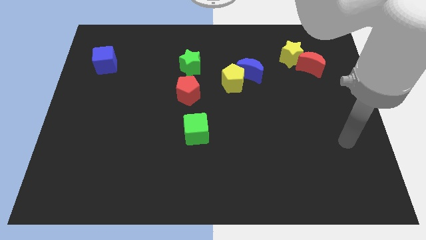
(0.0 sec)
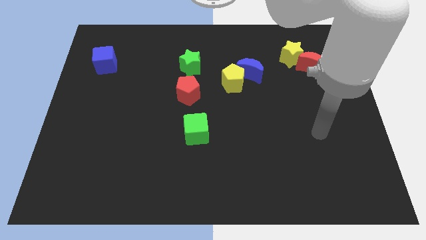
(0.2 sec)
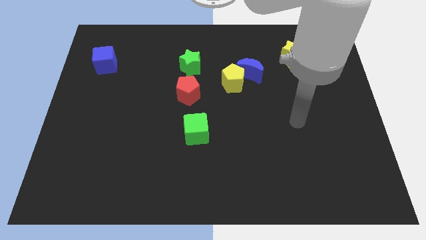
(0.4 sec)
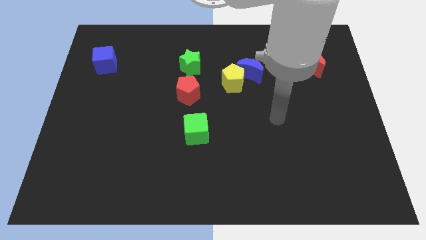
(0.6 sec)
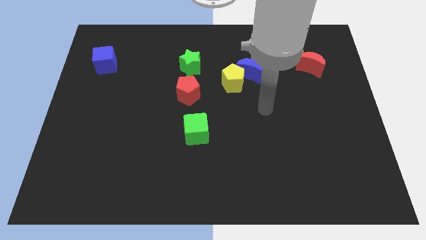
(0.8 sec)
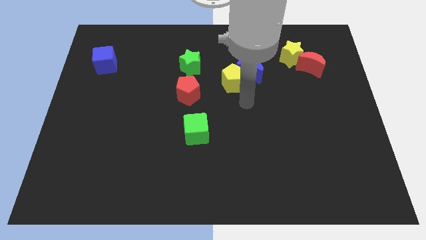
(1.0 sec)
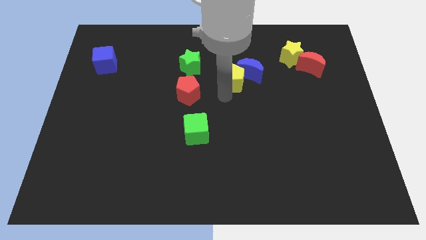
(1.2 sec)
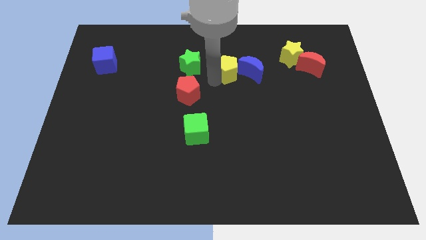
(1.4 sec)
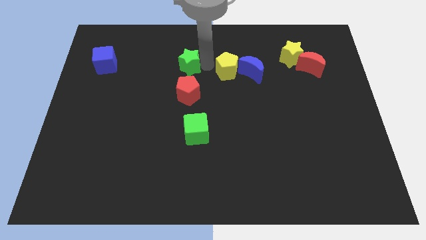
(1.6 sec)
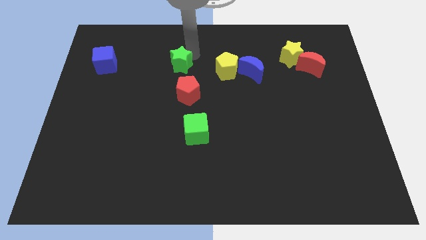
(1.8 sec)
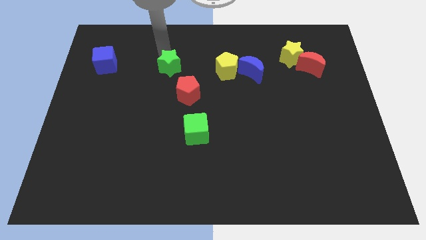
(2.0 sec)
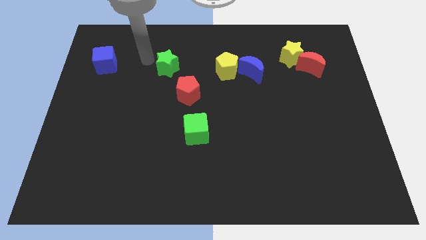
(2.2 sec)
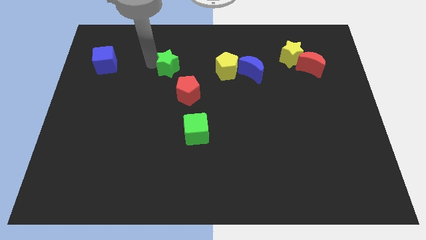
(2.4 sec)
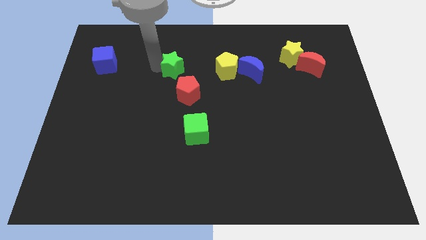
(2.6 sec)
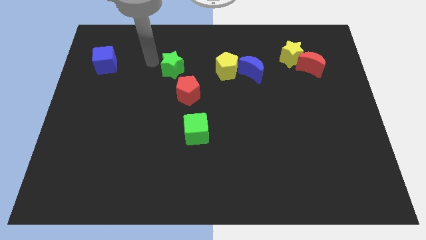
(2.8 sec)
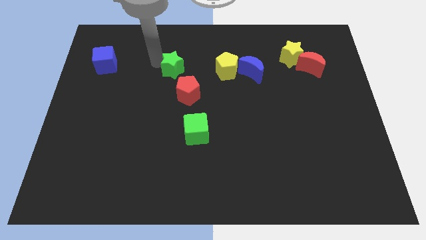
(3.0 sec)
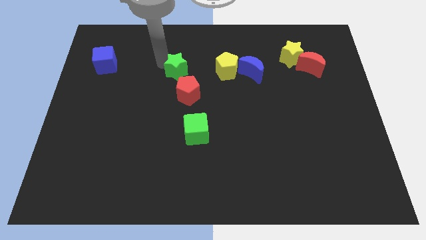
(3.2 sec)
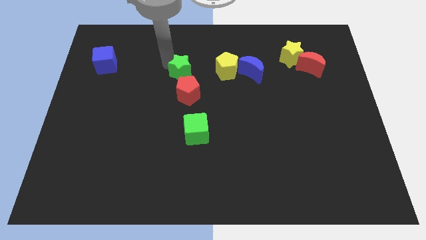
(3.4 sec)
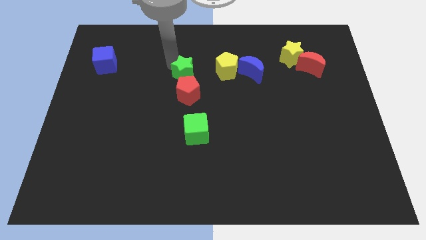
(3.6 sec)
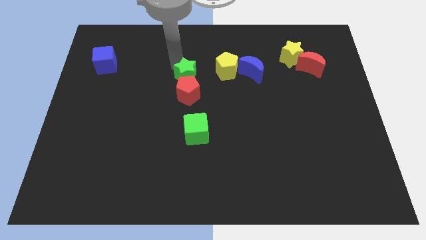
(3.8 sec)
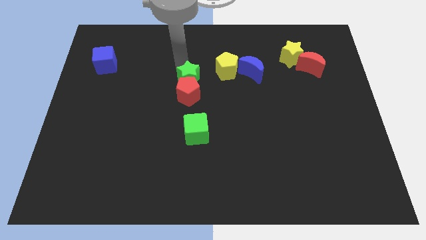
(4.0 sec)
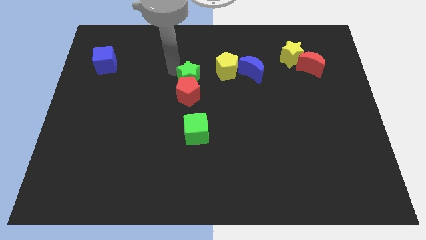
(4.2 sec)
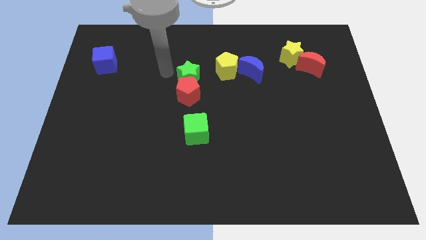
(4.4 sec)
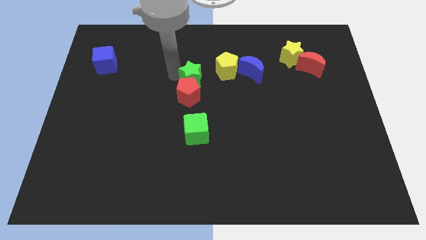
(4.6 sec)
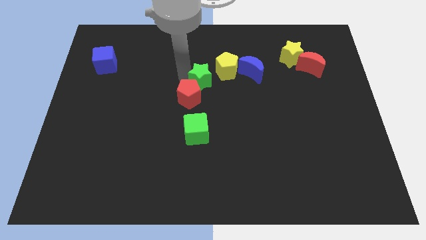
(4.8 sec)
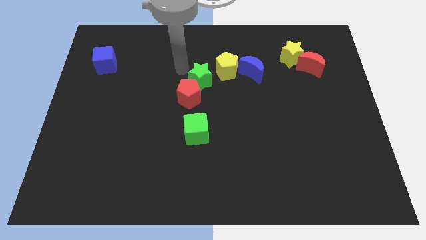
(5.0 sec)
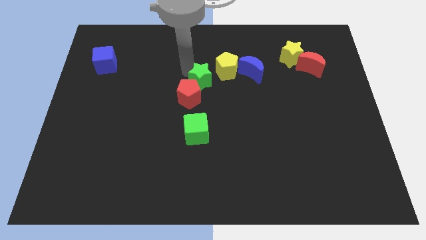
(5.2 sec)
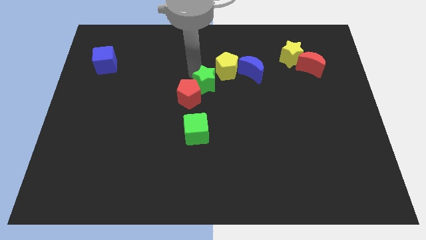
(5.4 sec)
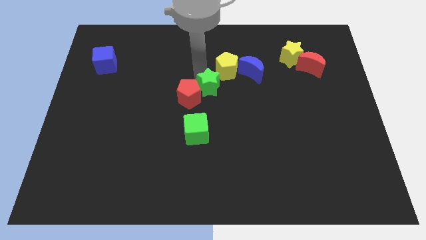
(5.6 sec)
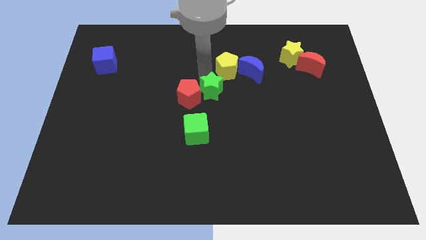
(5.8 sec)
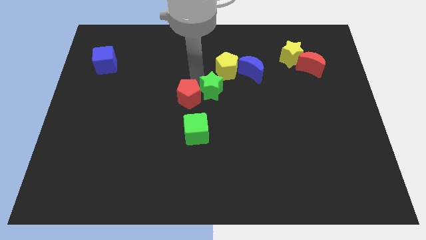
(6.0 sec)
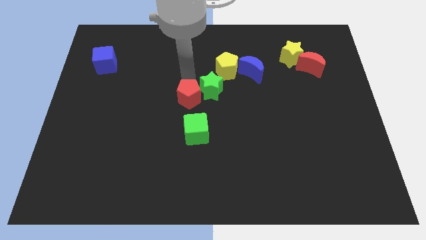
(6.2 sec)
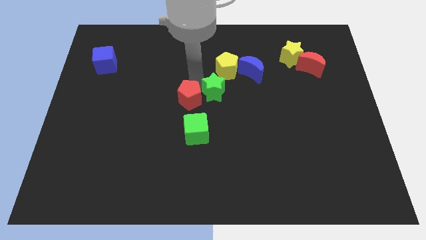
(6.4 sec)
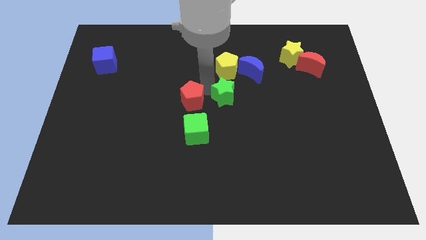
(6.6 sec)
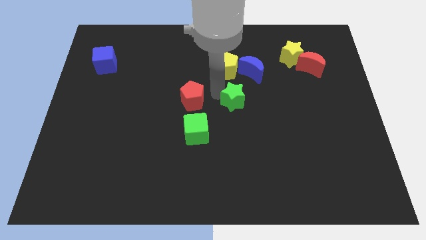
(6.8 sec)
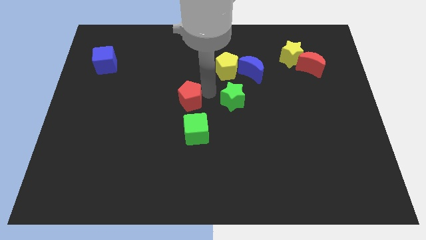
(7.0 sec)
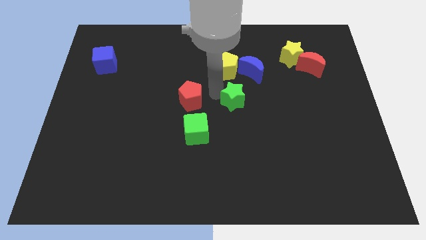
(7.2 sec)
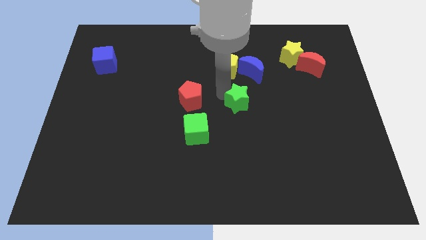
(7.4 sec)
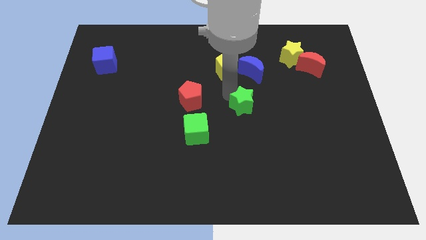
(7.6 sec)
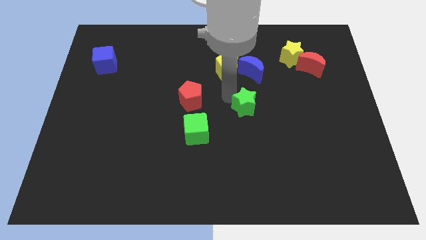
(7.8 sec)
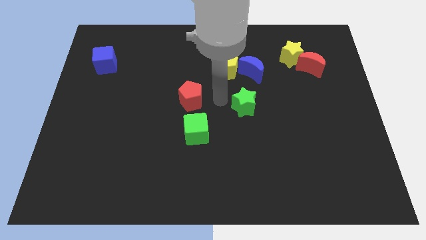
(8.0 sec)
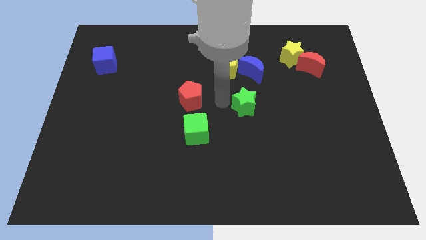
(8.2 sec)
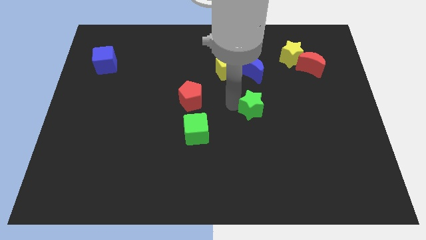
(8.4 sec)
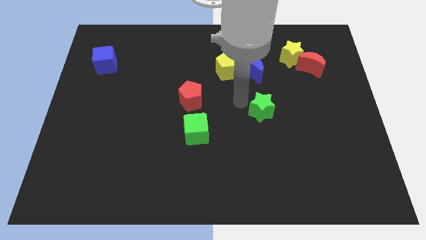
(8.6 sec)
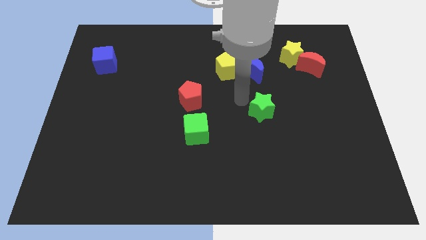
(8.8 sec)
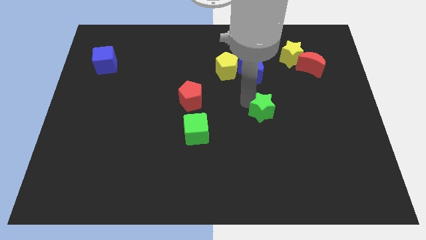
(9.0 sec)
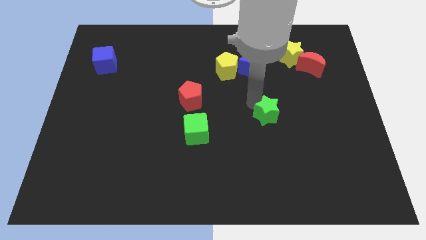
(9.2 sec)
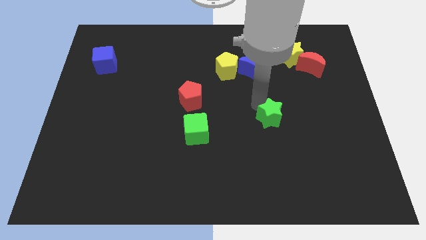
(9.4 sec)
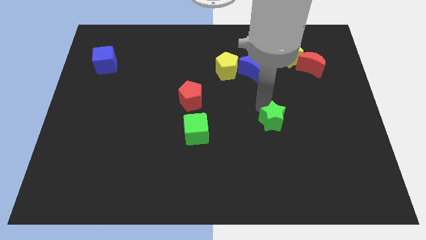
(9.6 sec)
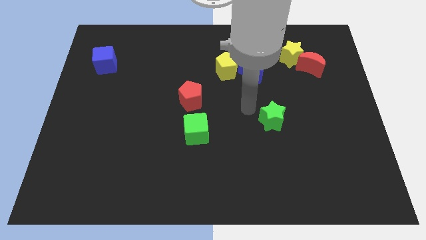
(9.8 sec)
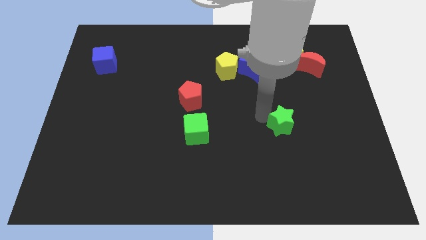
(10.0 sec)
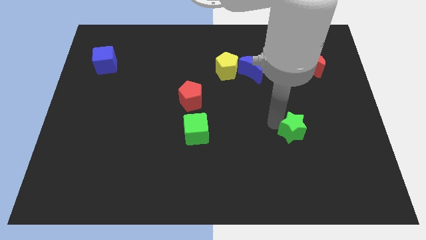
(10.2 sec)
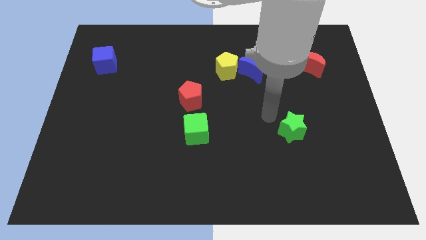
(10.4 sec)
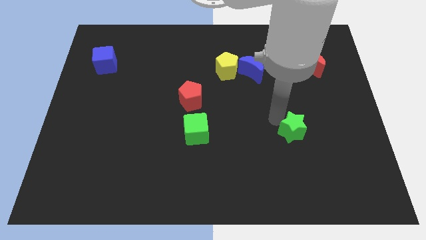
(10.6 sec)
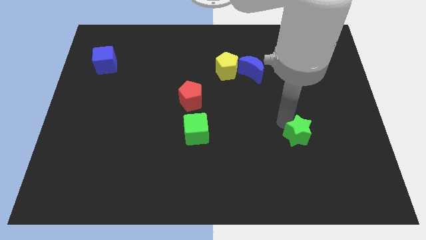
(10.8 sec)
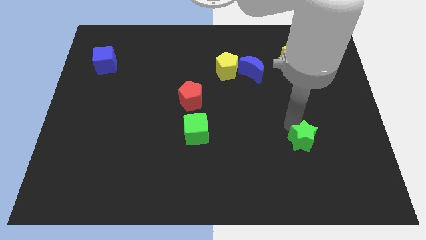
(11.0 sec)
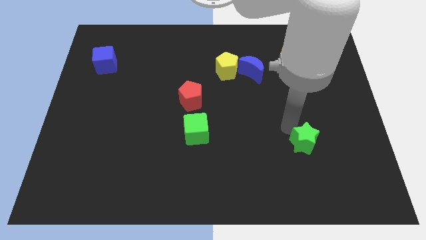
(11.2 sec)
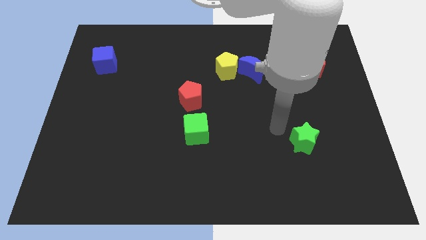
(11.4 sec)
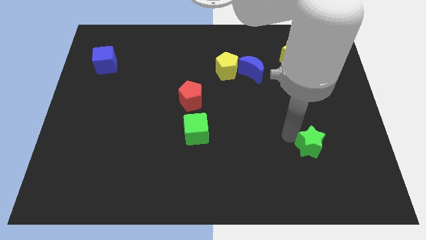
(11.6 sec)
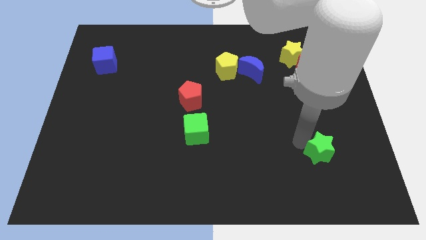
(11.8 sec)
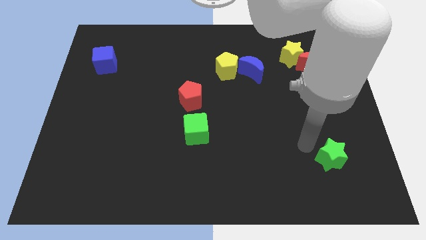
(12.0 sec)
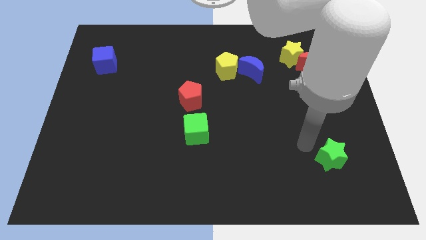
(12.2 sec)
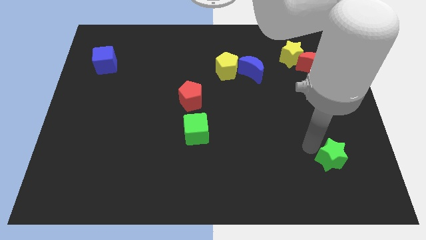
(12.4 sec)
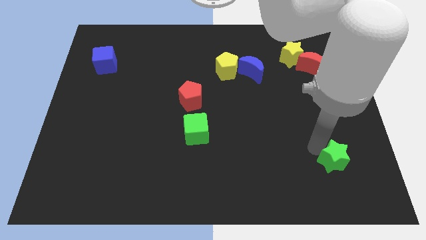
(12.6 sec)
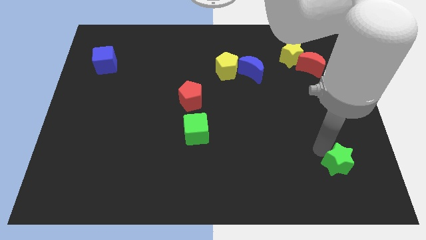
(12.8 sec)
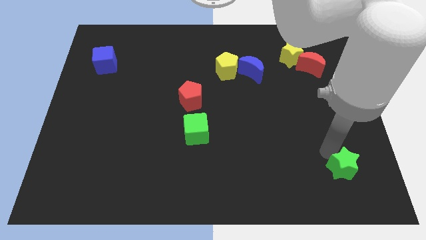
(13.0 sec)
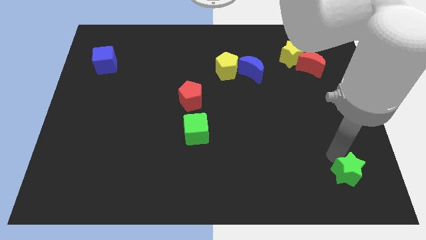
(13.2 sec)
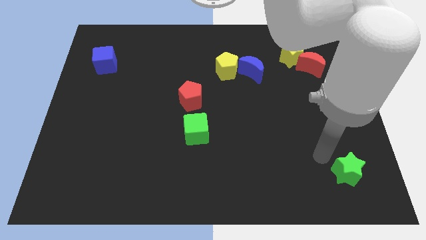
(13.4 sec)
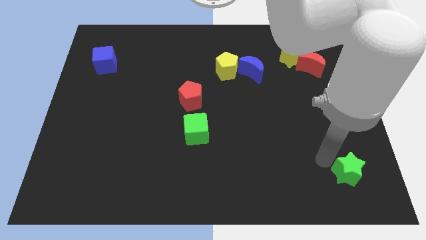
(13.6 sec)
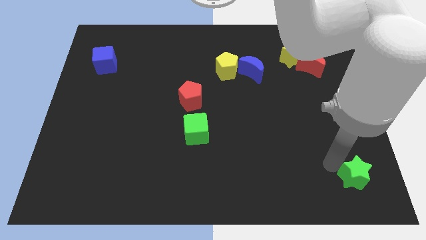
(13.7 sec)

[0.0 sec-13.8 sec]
move the green star to the bottom right
